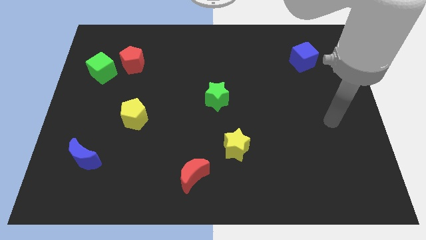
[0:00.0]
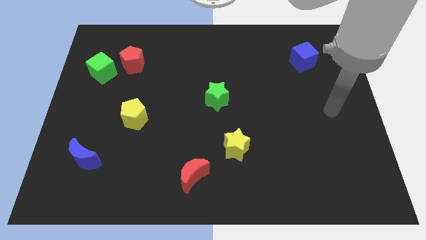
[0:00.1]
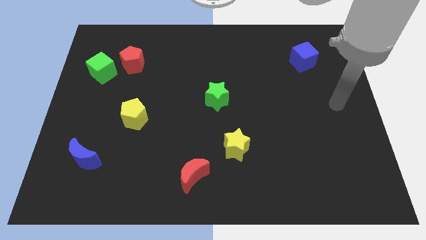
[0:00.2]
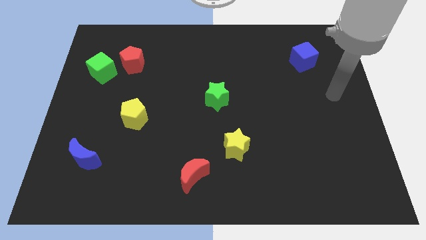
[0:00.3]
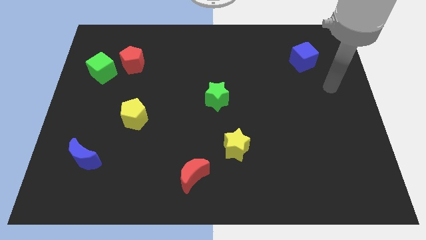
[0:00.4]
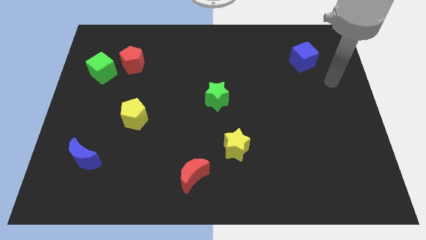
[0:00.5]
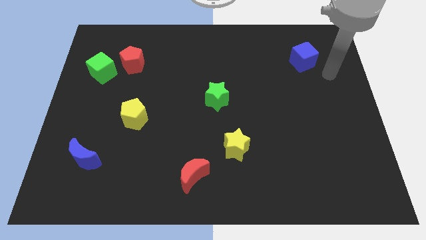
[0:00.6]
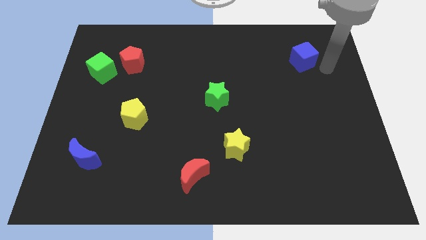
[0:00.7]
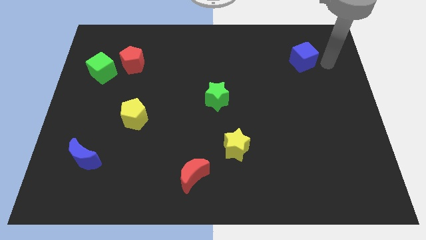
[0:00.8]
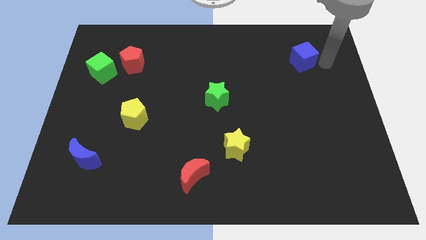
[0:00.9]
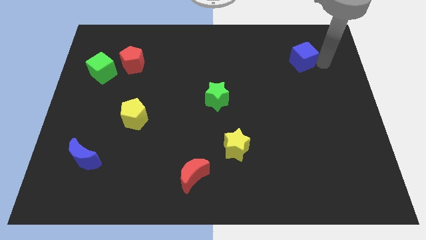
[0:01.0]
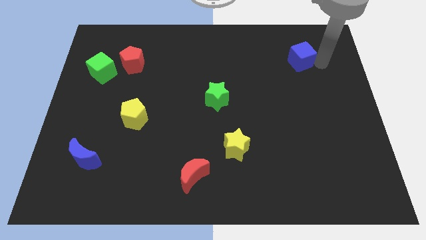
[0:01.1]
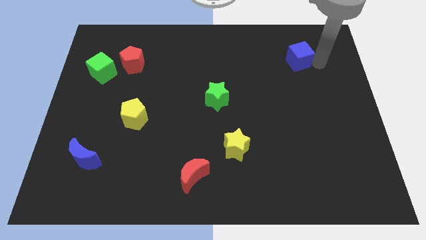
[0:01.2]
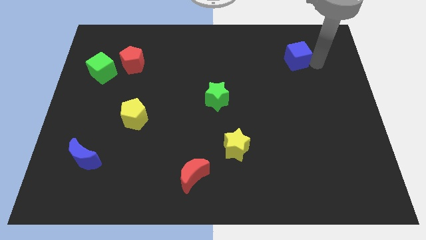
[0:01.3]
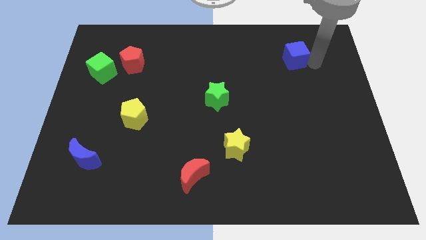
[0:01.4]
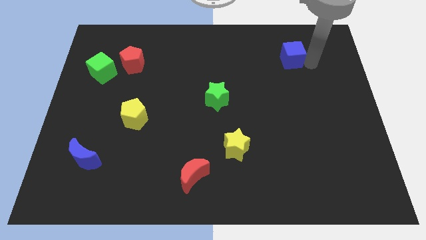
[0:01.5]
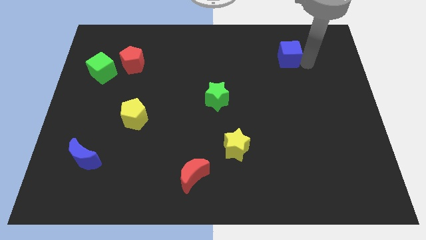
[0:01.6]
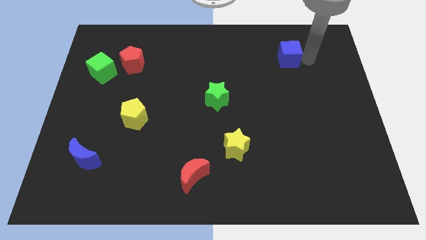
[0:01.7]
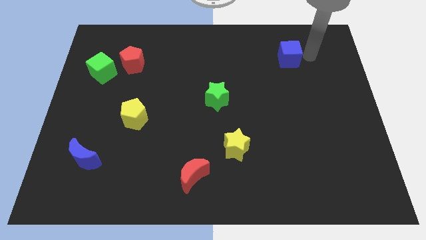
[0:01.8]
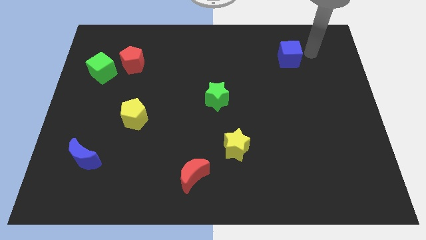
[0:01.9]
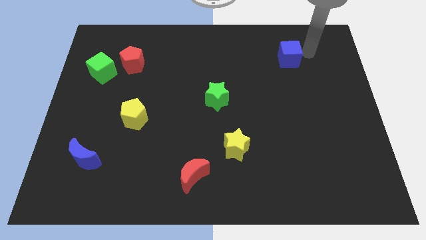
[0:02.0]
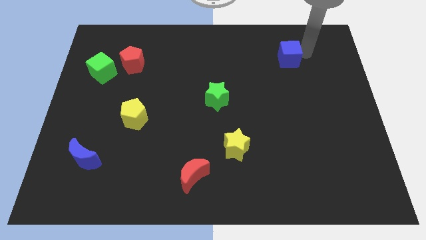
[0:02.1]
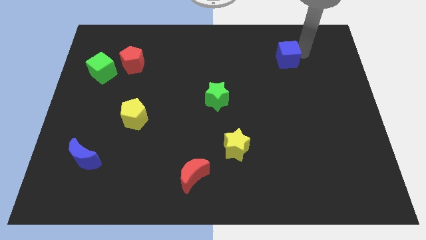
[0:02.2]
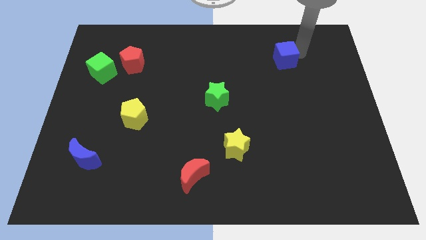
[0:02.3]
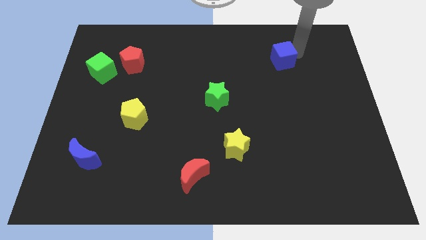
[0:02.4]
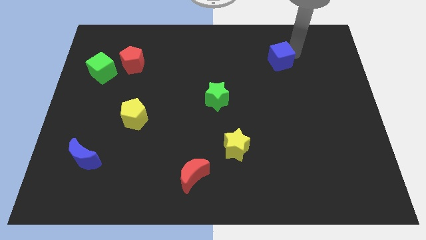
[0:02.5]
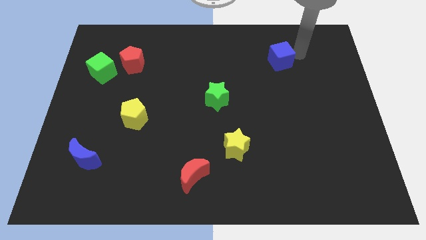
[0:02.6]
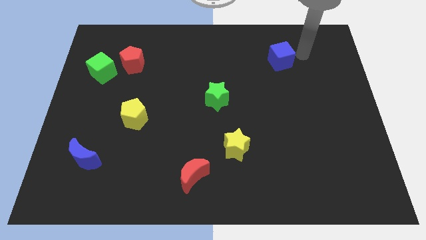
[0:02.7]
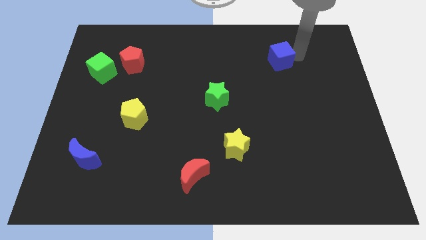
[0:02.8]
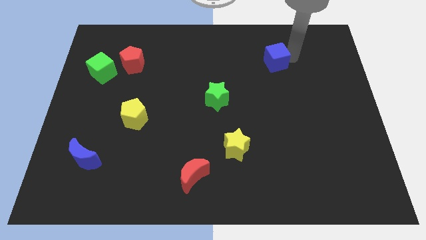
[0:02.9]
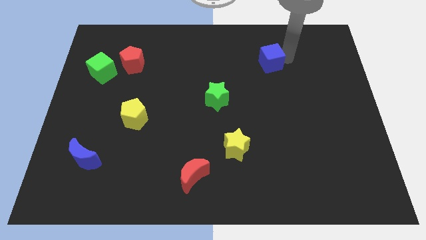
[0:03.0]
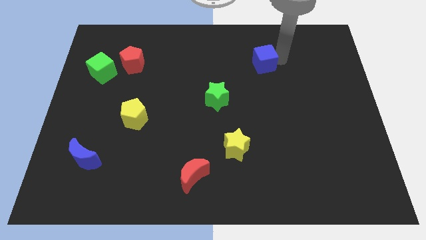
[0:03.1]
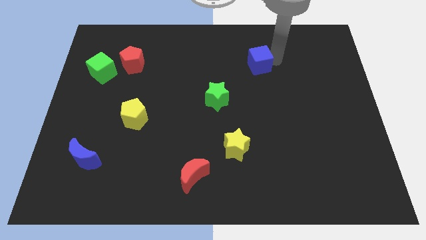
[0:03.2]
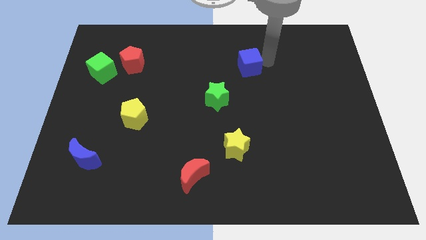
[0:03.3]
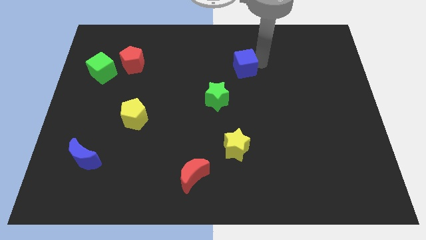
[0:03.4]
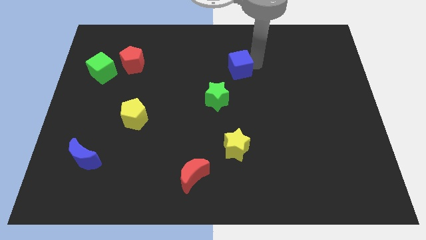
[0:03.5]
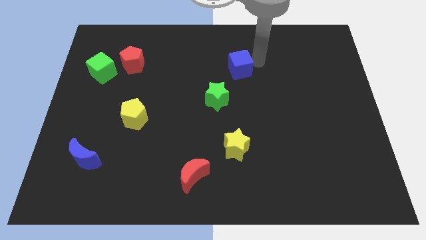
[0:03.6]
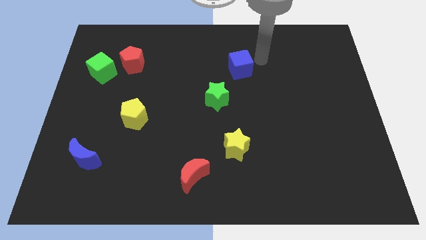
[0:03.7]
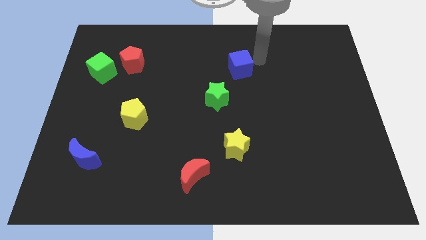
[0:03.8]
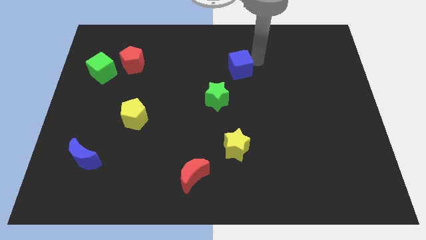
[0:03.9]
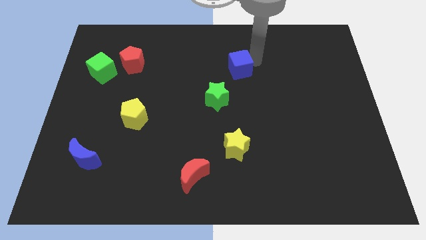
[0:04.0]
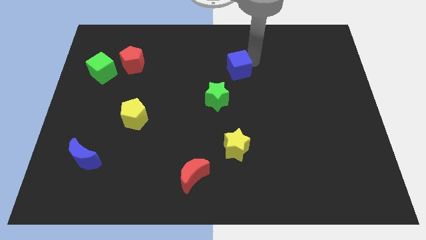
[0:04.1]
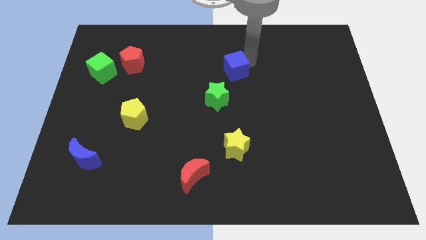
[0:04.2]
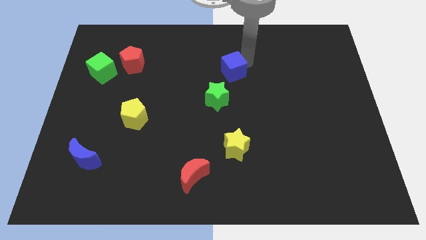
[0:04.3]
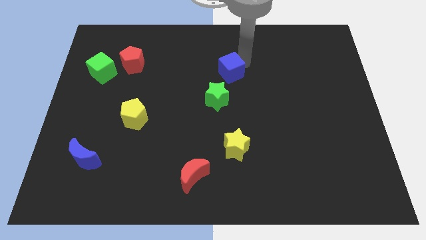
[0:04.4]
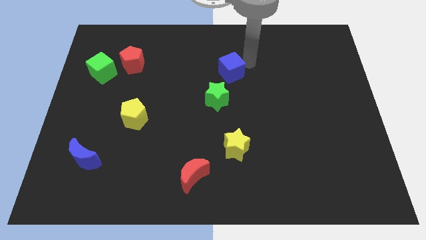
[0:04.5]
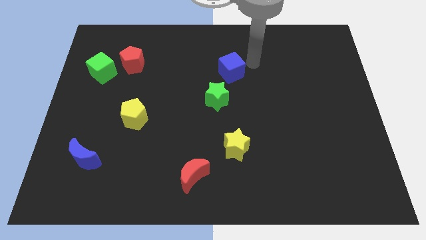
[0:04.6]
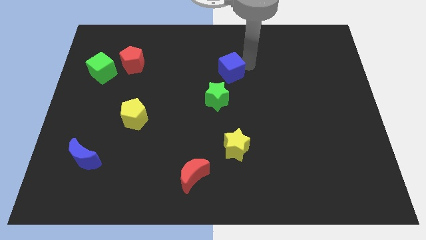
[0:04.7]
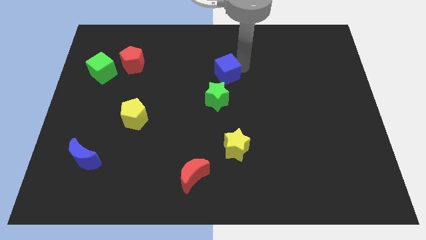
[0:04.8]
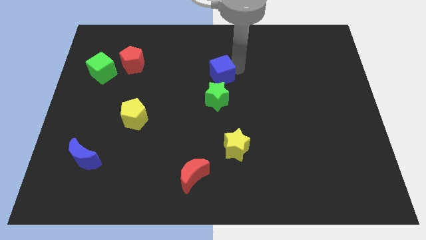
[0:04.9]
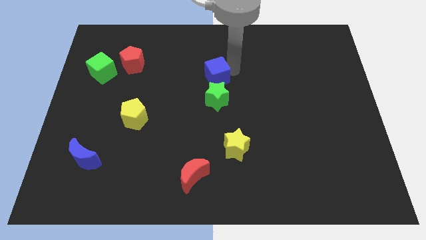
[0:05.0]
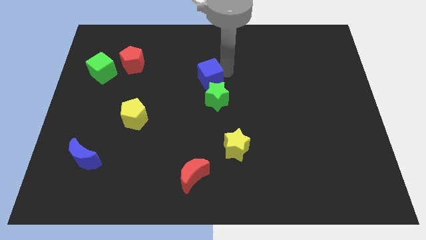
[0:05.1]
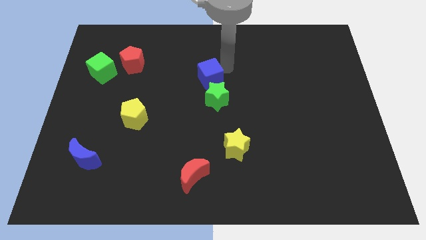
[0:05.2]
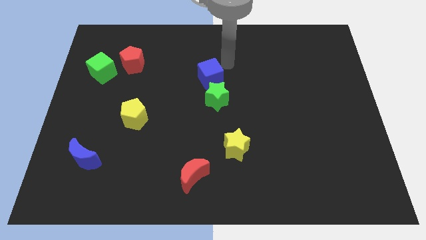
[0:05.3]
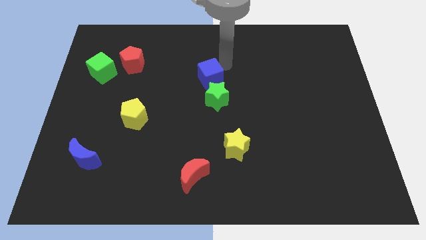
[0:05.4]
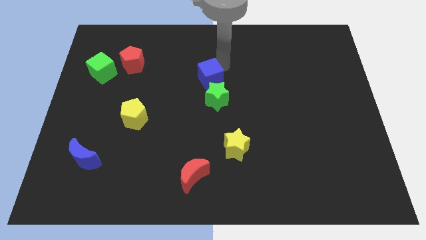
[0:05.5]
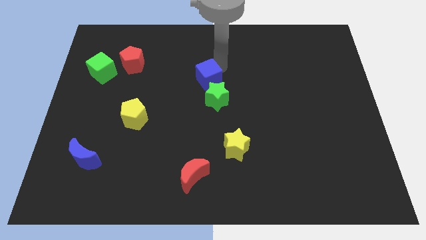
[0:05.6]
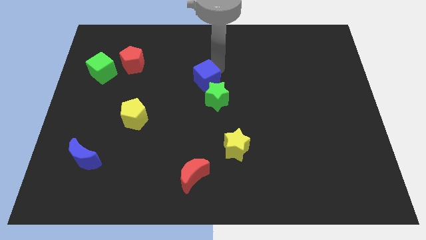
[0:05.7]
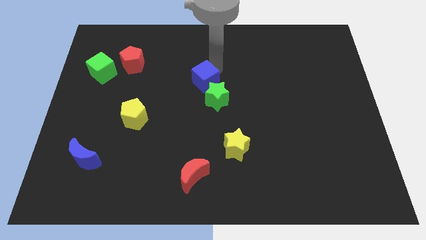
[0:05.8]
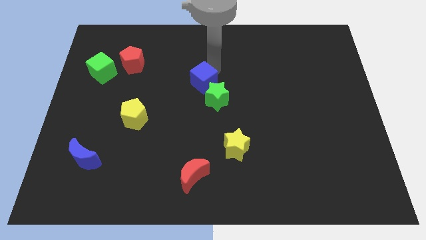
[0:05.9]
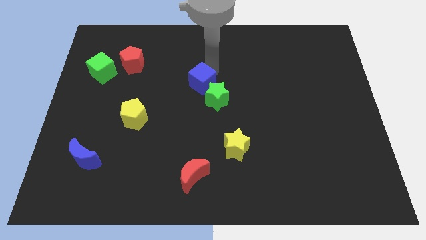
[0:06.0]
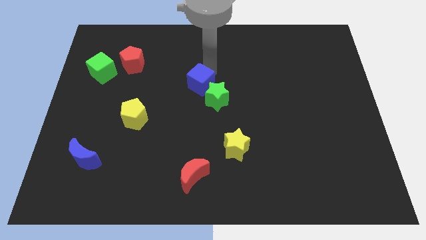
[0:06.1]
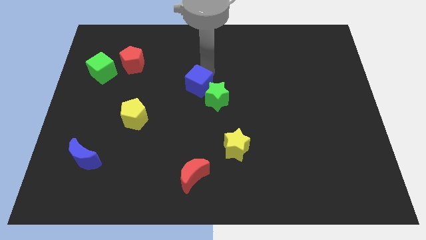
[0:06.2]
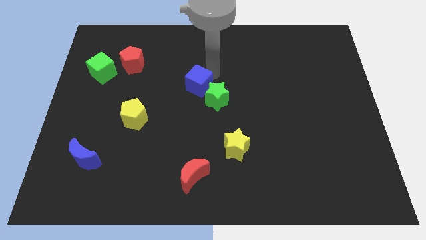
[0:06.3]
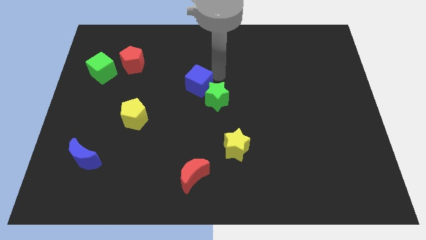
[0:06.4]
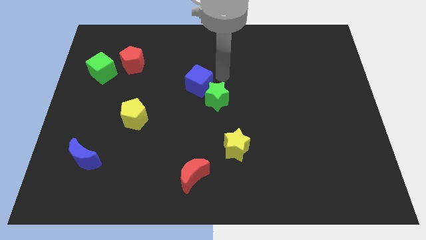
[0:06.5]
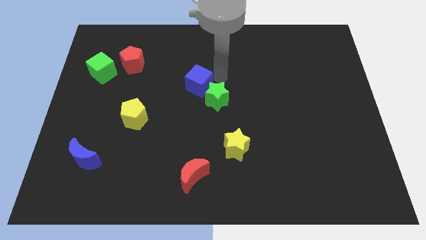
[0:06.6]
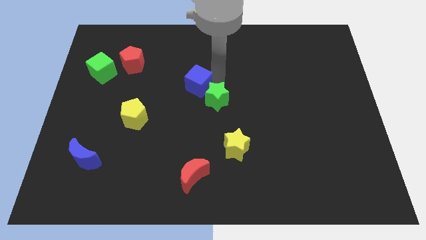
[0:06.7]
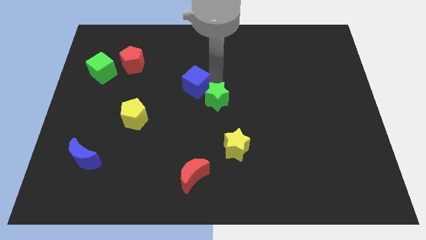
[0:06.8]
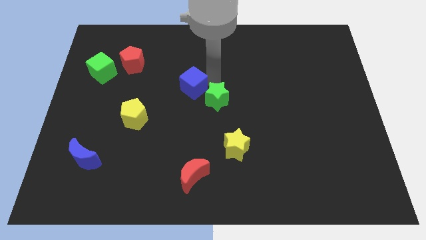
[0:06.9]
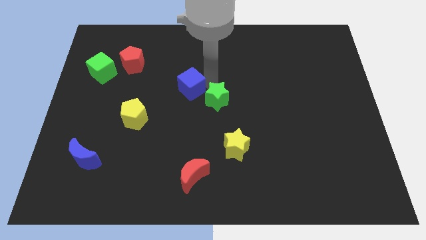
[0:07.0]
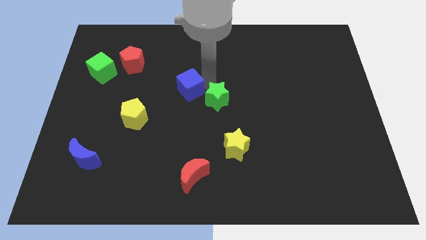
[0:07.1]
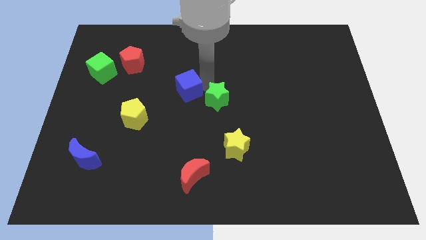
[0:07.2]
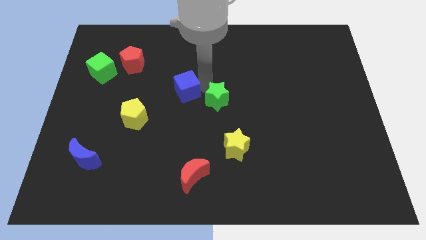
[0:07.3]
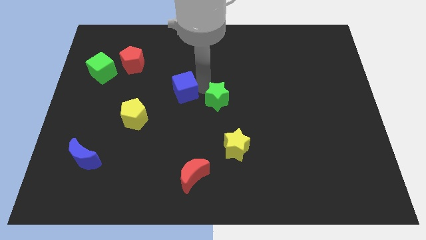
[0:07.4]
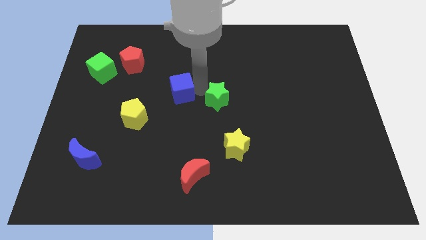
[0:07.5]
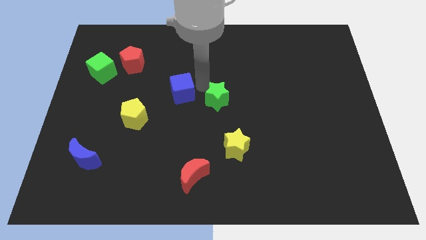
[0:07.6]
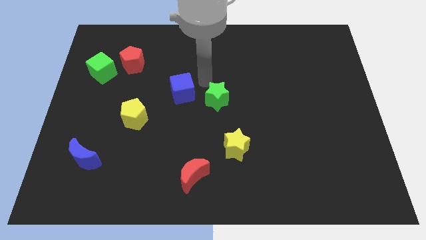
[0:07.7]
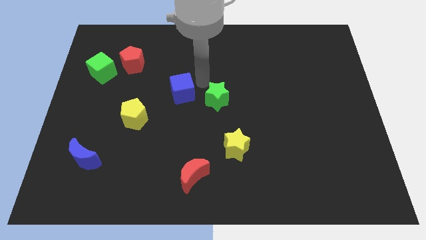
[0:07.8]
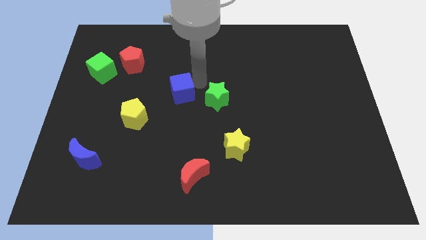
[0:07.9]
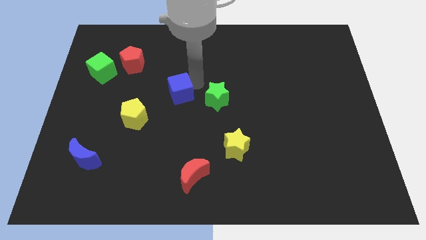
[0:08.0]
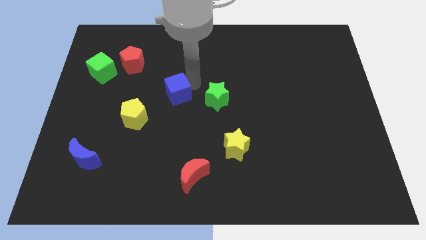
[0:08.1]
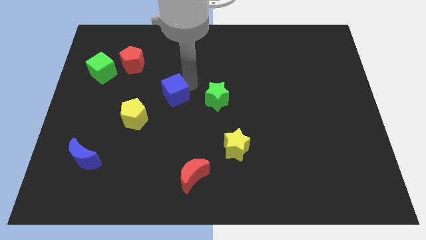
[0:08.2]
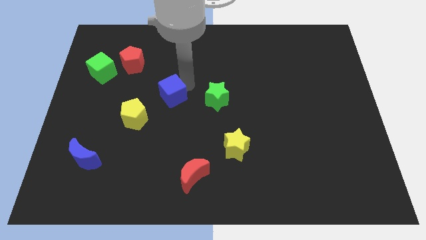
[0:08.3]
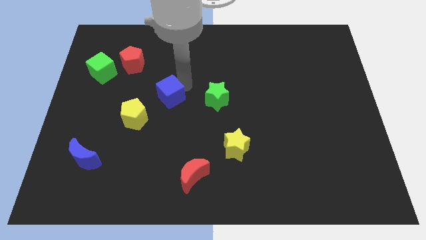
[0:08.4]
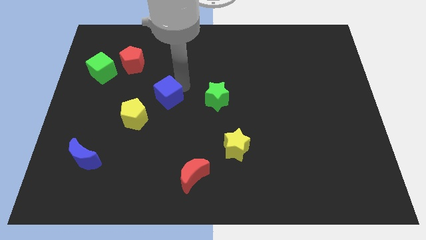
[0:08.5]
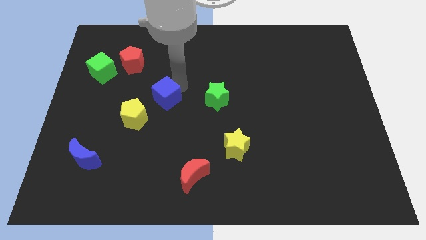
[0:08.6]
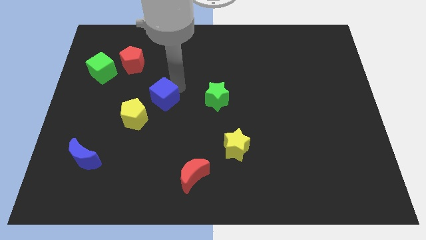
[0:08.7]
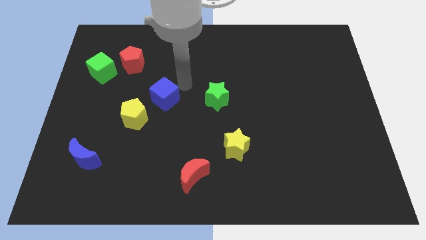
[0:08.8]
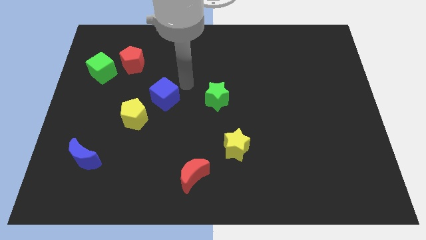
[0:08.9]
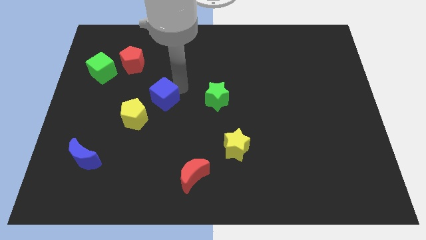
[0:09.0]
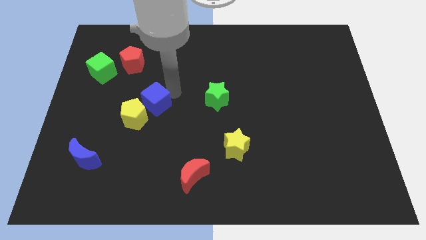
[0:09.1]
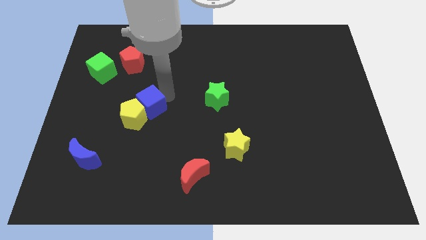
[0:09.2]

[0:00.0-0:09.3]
push the blue cube to the yellow pentagon
